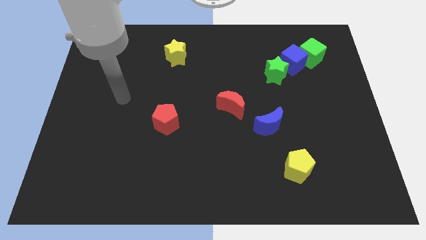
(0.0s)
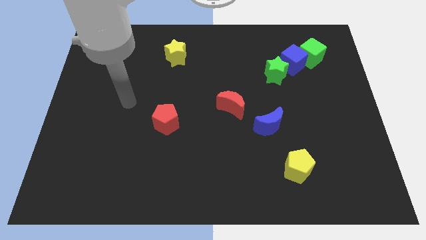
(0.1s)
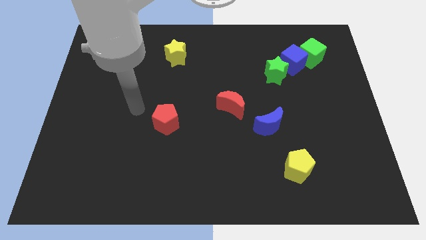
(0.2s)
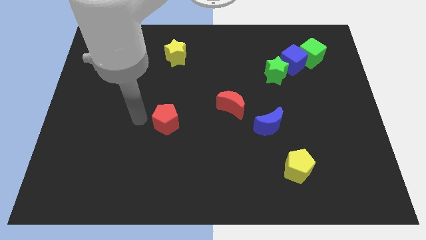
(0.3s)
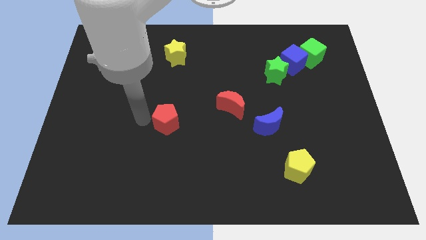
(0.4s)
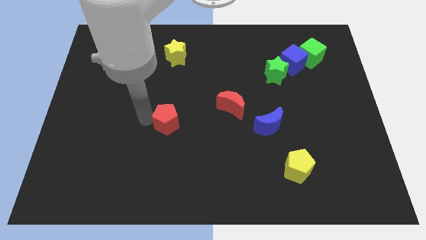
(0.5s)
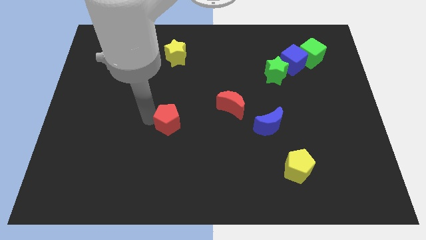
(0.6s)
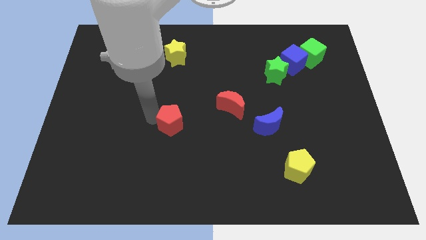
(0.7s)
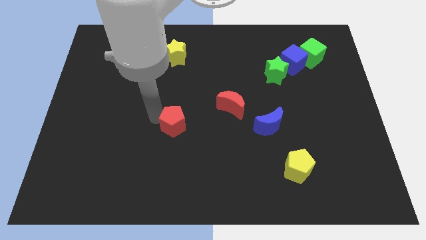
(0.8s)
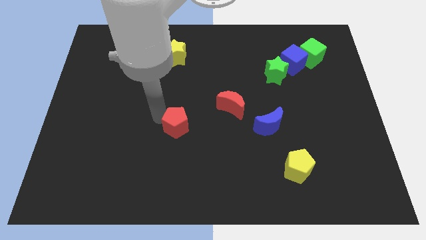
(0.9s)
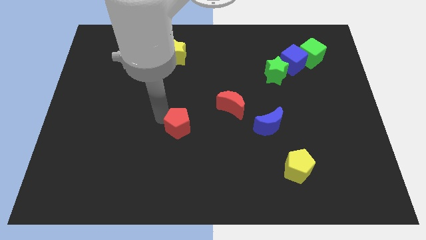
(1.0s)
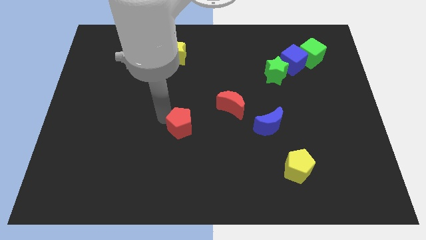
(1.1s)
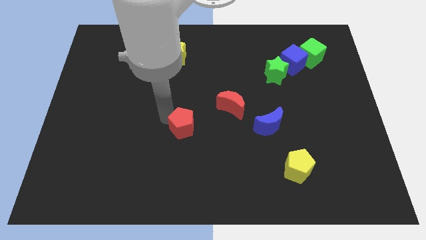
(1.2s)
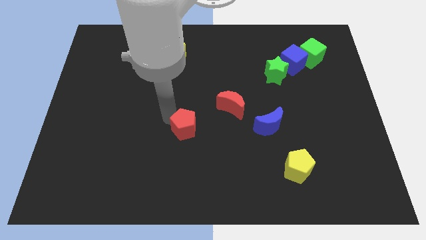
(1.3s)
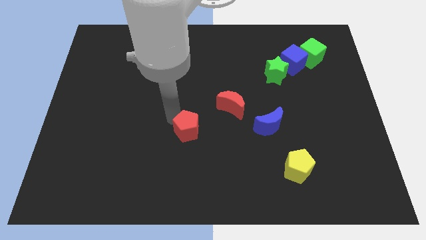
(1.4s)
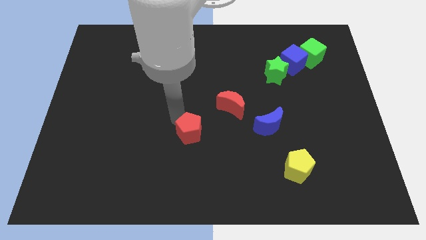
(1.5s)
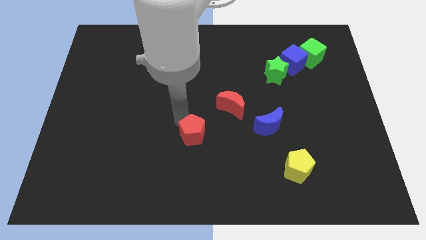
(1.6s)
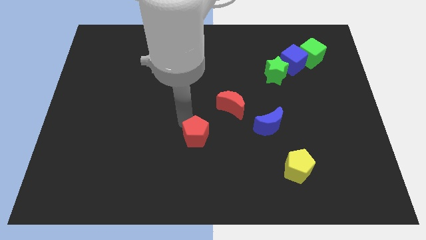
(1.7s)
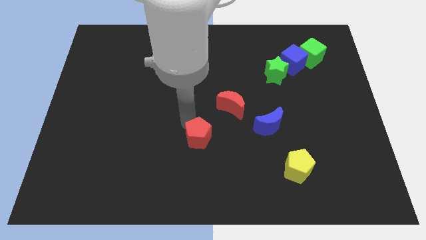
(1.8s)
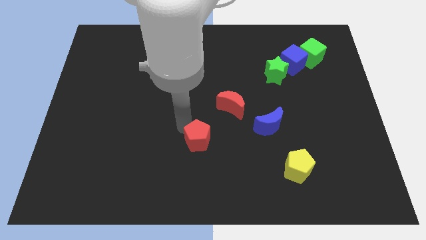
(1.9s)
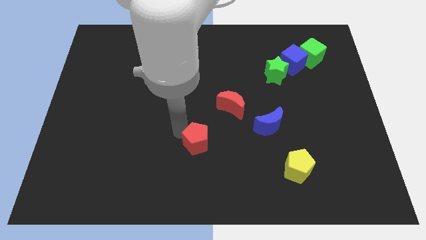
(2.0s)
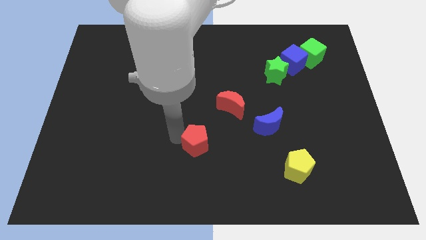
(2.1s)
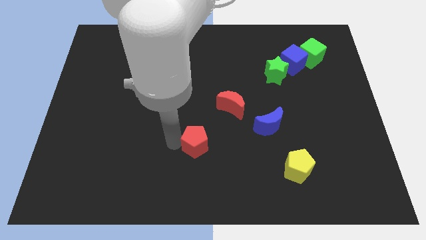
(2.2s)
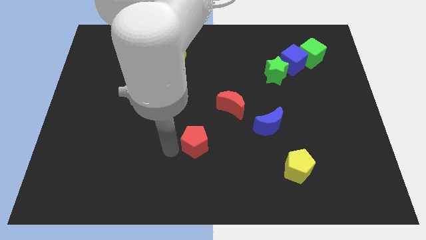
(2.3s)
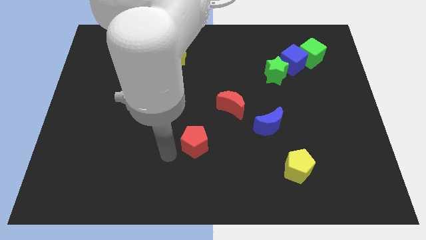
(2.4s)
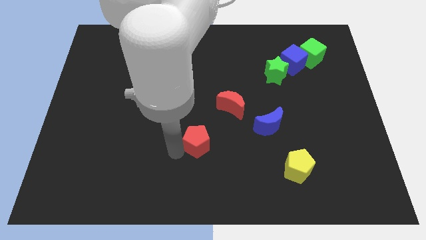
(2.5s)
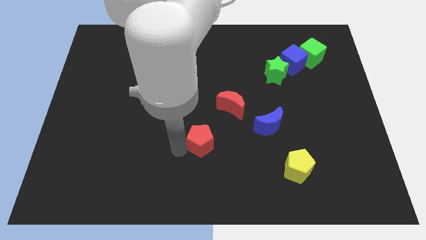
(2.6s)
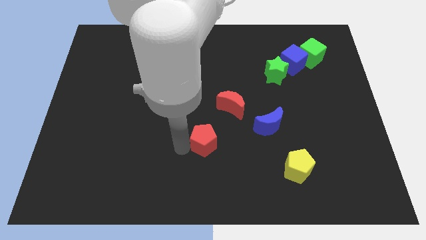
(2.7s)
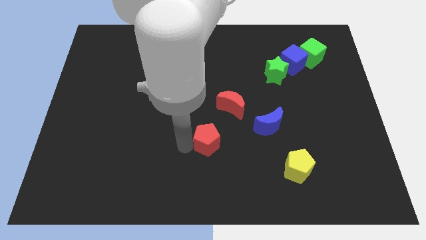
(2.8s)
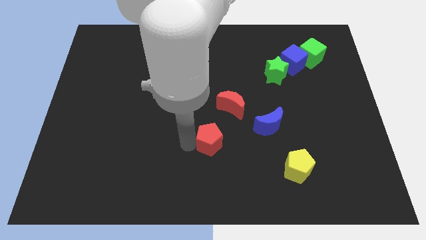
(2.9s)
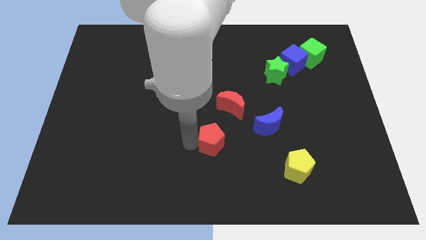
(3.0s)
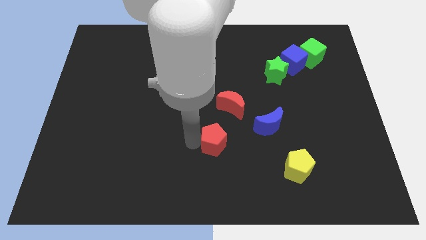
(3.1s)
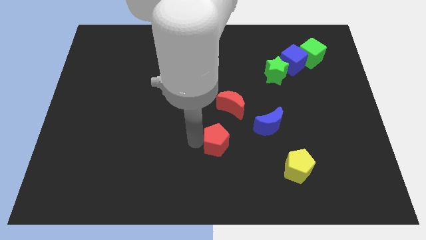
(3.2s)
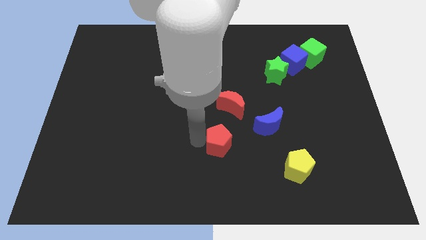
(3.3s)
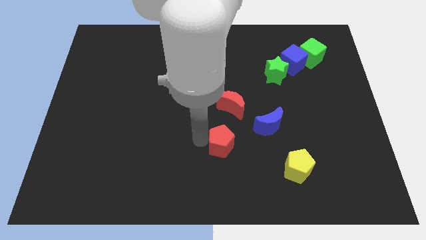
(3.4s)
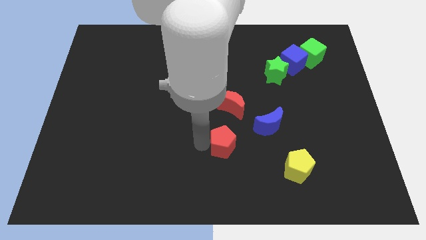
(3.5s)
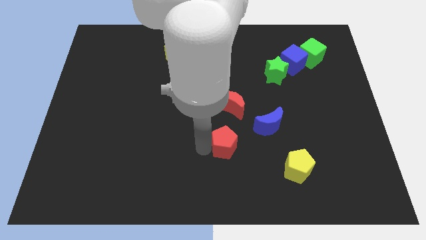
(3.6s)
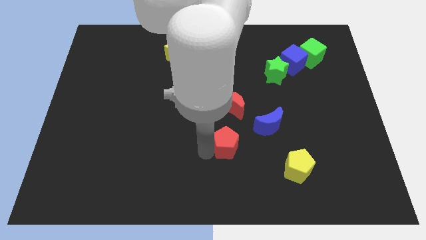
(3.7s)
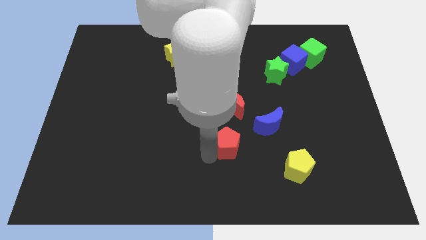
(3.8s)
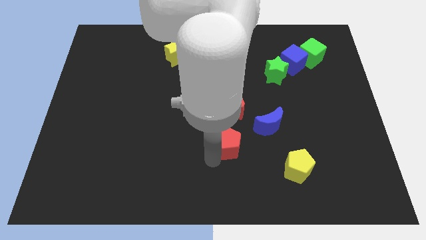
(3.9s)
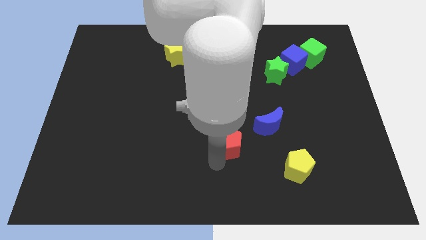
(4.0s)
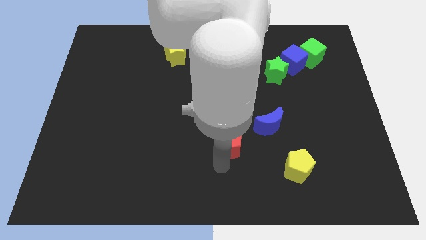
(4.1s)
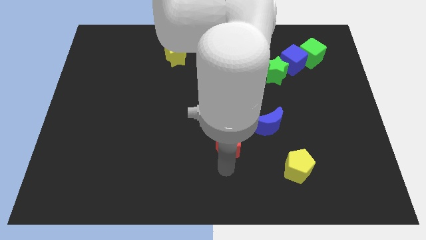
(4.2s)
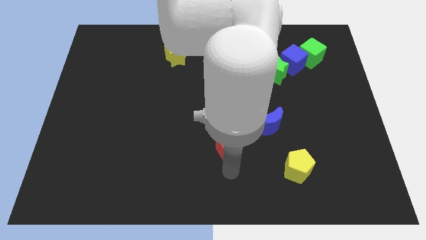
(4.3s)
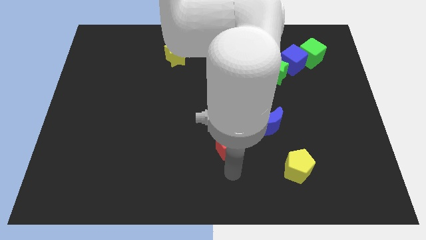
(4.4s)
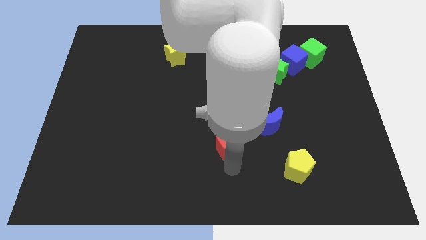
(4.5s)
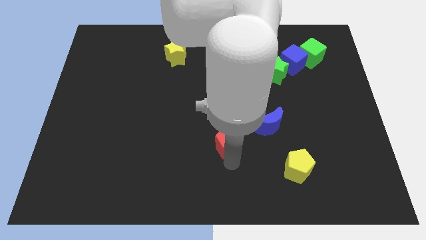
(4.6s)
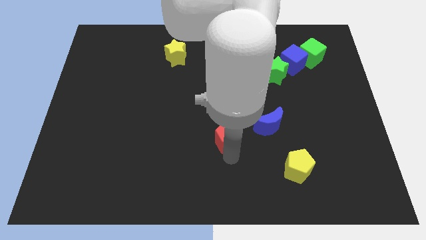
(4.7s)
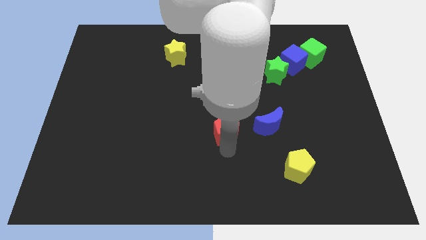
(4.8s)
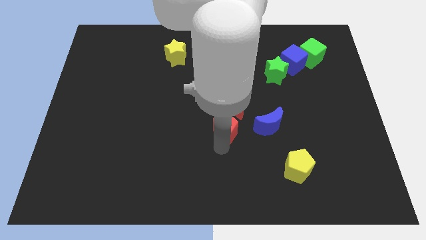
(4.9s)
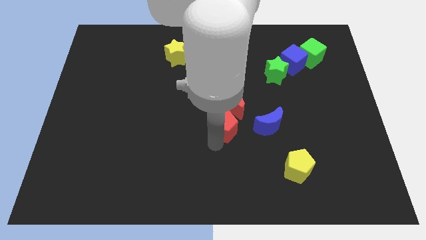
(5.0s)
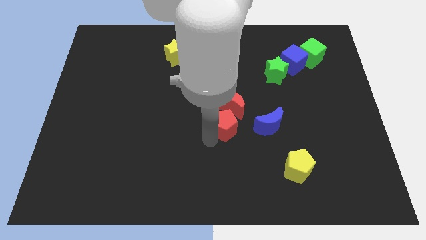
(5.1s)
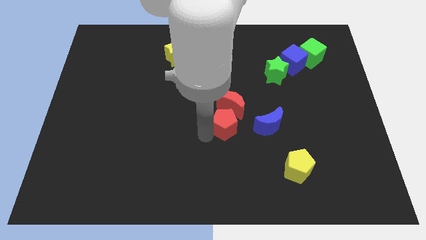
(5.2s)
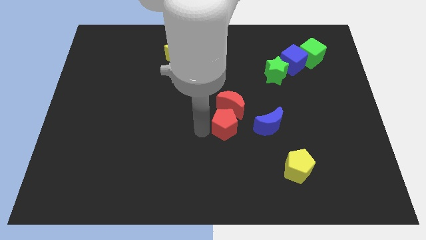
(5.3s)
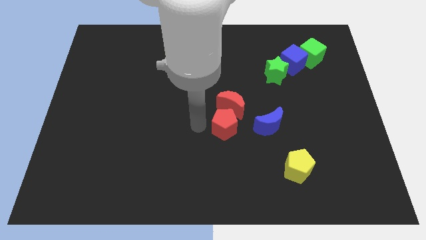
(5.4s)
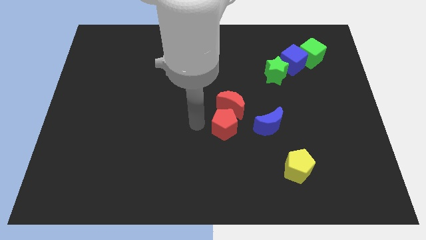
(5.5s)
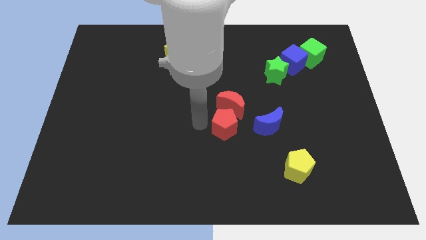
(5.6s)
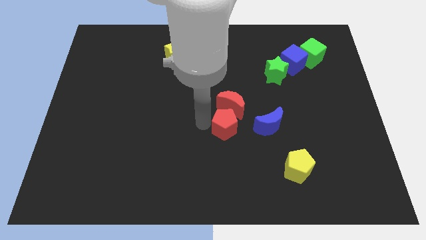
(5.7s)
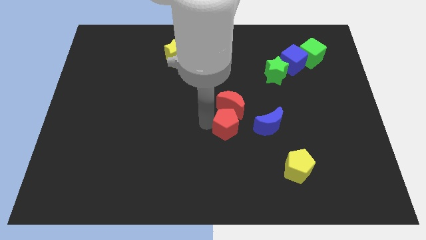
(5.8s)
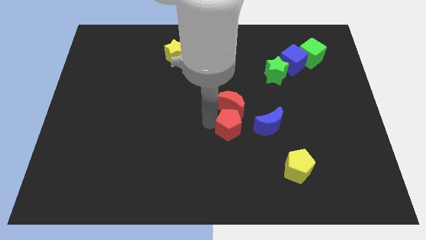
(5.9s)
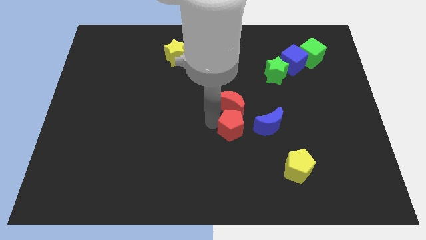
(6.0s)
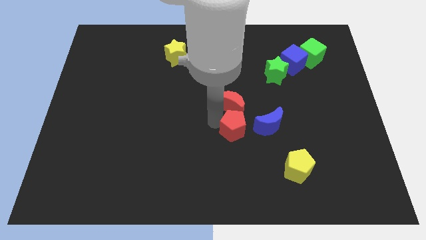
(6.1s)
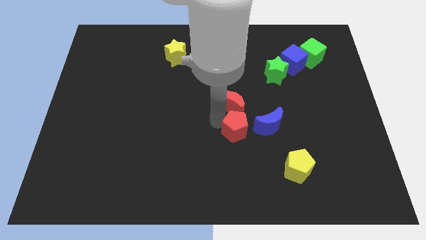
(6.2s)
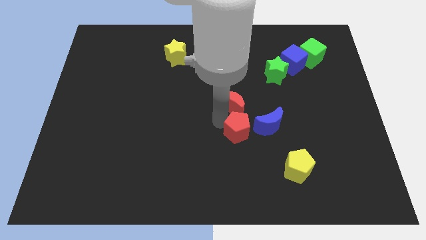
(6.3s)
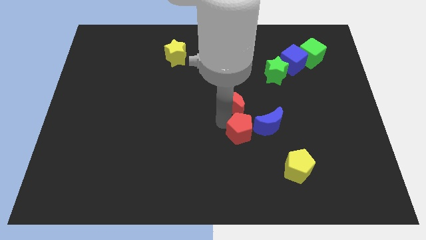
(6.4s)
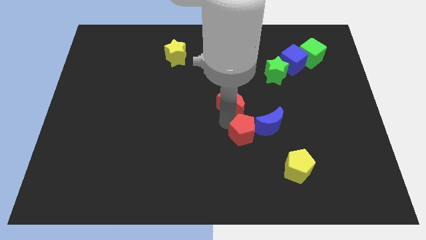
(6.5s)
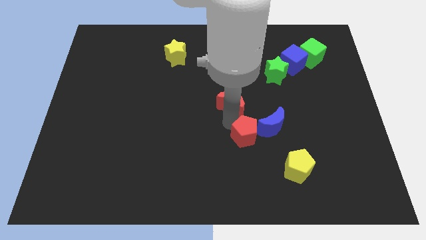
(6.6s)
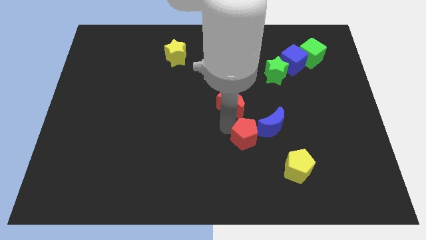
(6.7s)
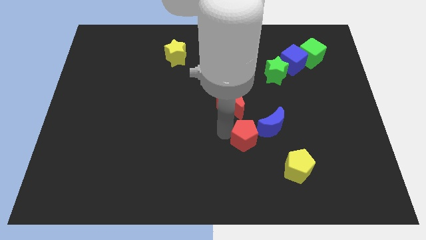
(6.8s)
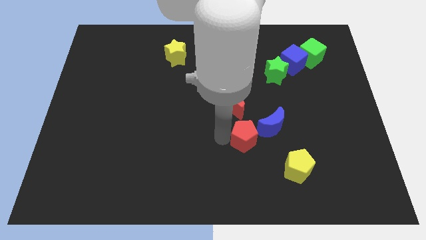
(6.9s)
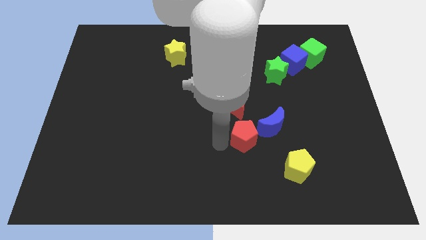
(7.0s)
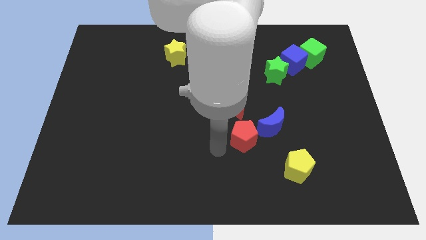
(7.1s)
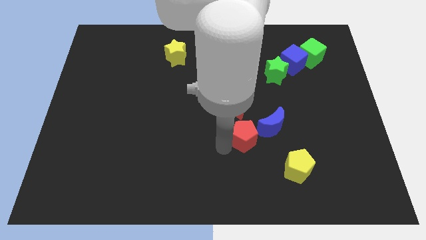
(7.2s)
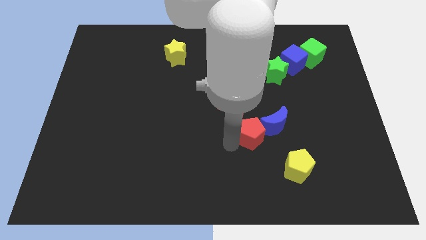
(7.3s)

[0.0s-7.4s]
slide the red pentagon close to the blue moon
